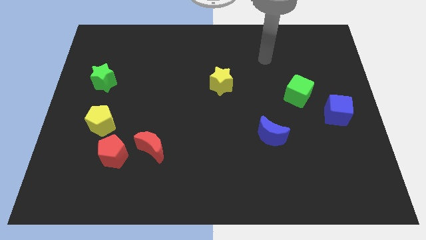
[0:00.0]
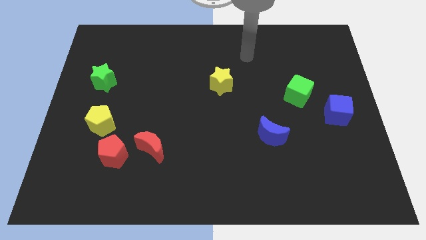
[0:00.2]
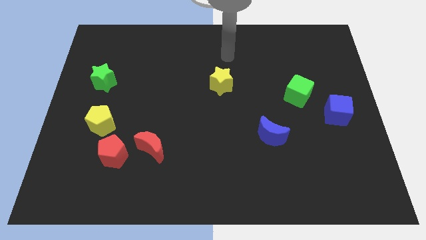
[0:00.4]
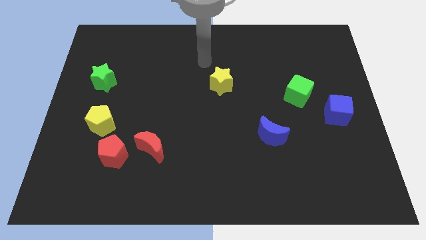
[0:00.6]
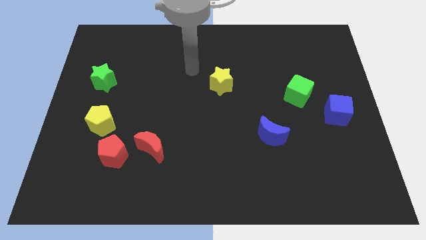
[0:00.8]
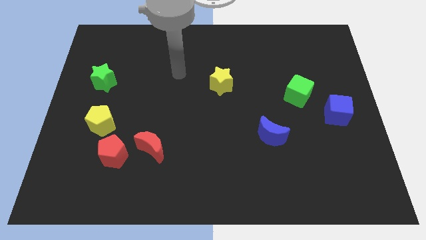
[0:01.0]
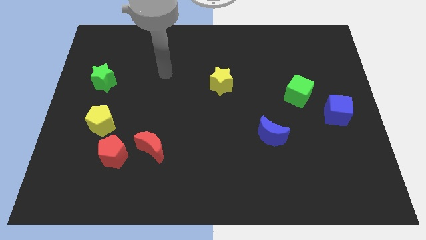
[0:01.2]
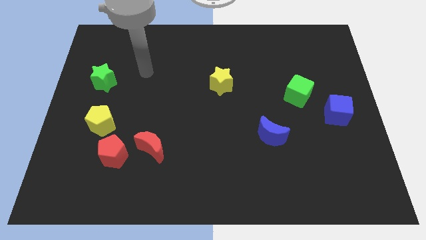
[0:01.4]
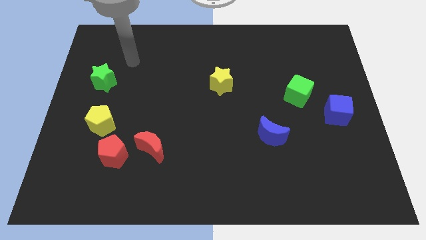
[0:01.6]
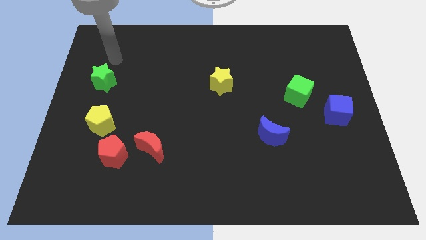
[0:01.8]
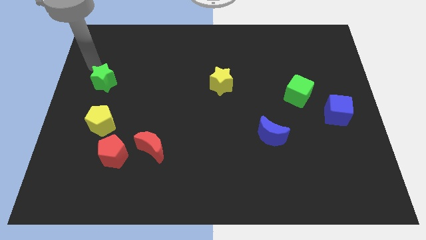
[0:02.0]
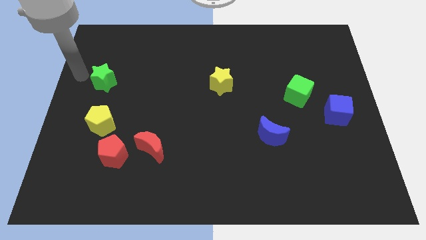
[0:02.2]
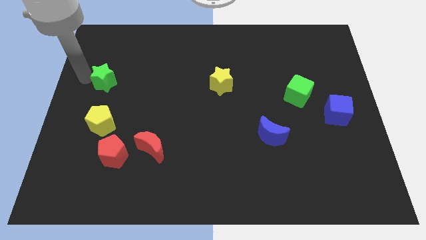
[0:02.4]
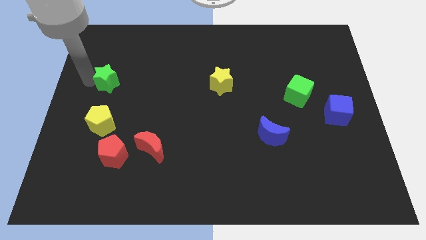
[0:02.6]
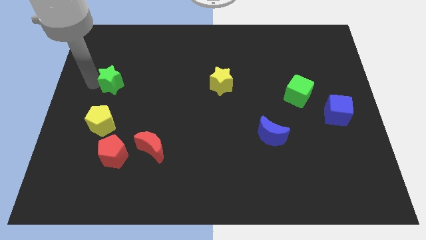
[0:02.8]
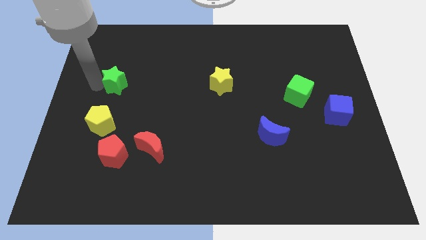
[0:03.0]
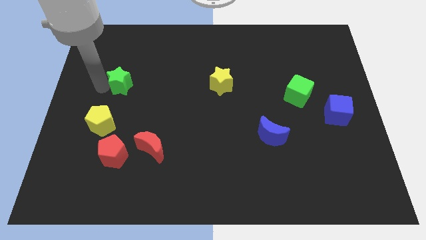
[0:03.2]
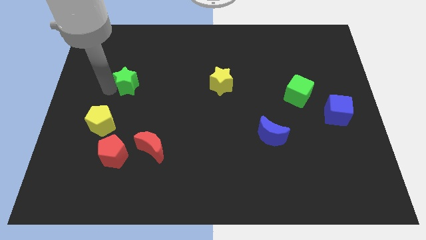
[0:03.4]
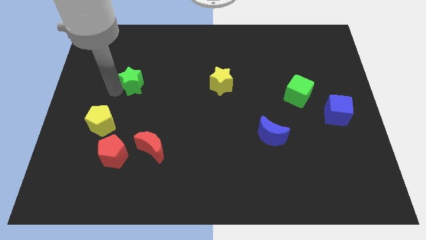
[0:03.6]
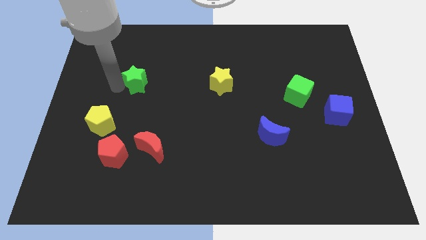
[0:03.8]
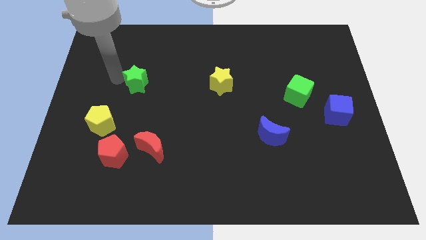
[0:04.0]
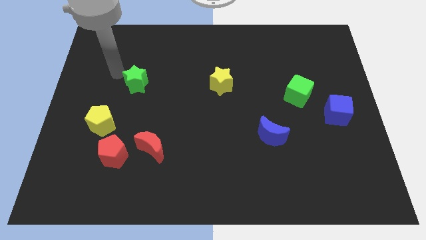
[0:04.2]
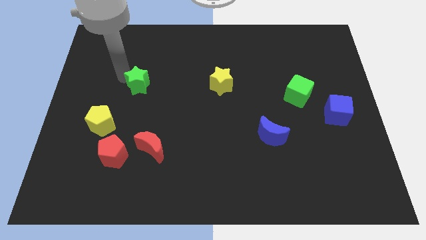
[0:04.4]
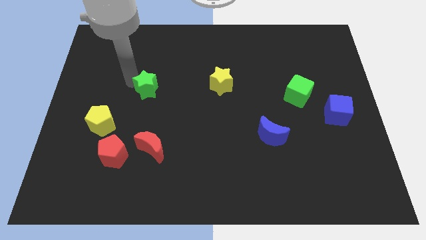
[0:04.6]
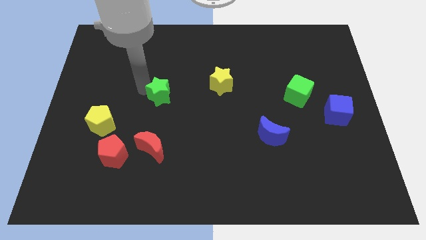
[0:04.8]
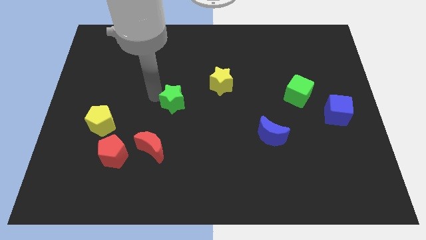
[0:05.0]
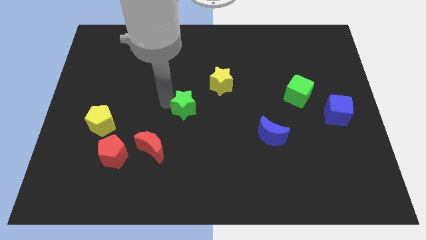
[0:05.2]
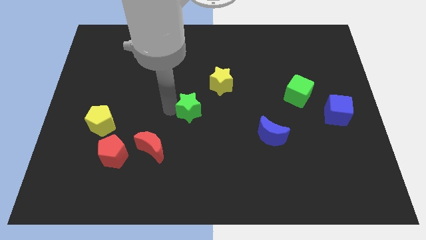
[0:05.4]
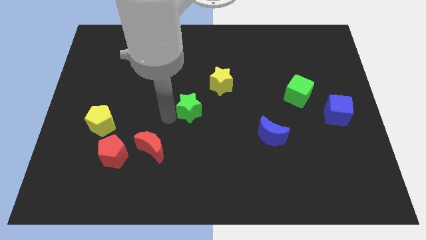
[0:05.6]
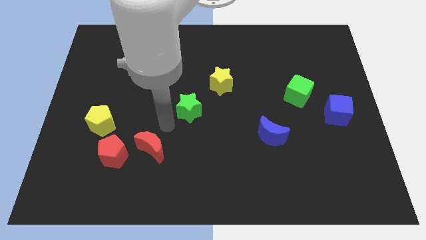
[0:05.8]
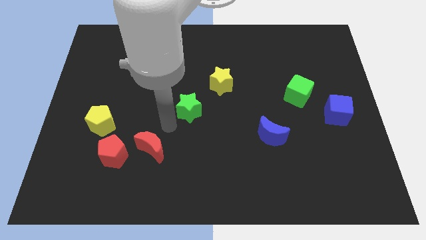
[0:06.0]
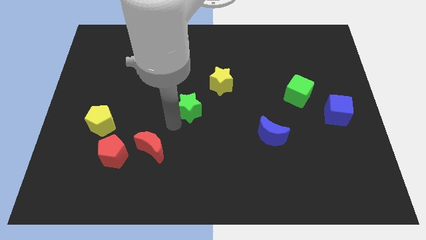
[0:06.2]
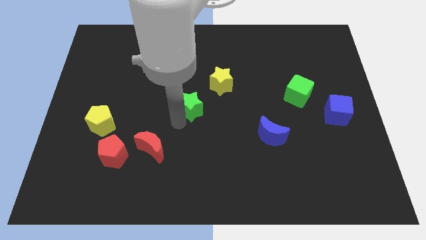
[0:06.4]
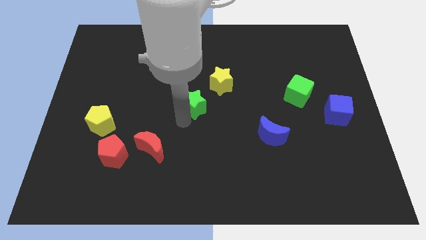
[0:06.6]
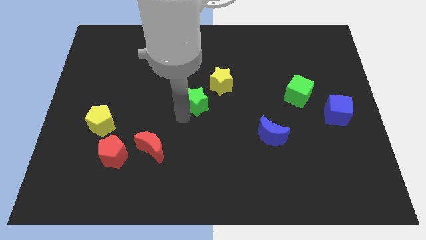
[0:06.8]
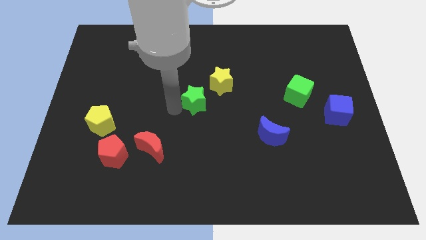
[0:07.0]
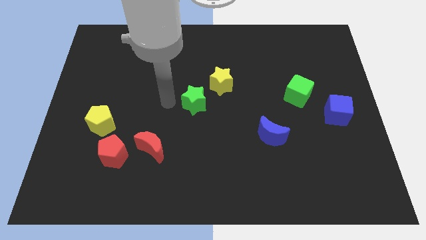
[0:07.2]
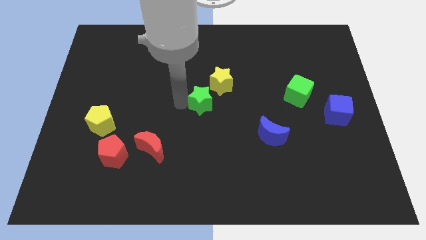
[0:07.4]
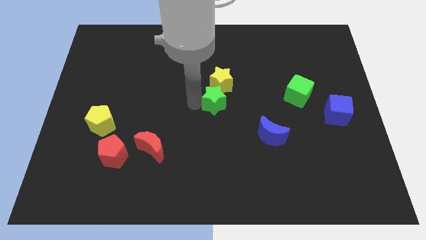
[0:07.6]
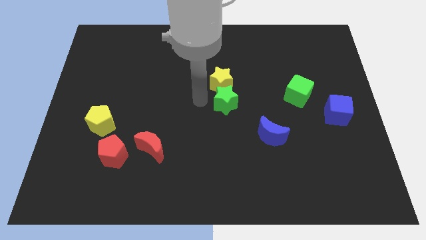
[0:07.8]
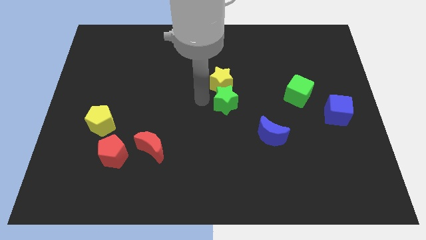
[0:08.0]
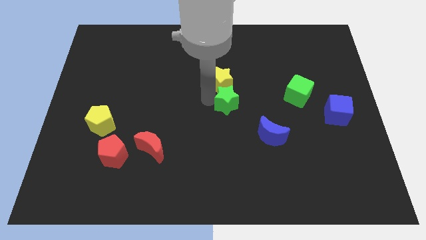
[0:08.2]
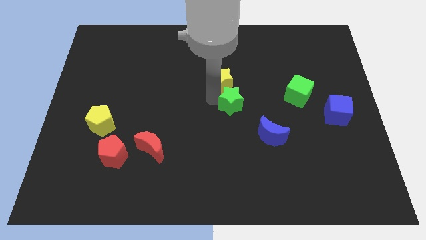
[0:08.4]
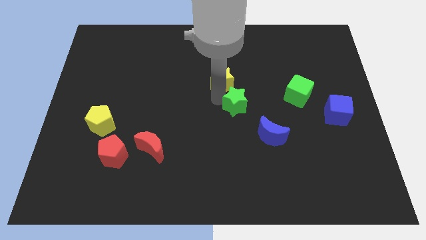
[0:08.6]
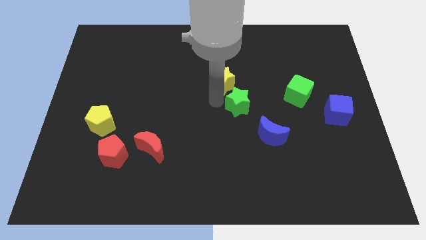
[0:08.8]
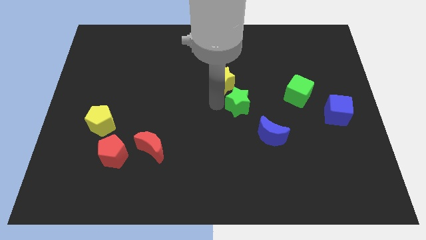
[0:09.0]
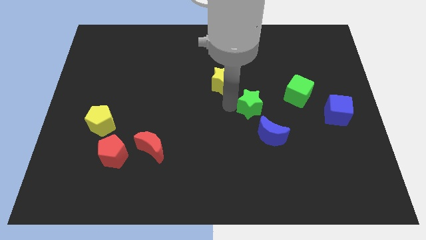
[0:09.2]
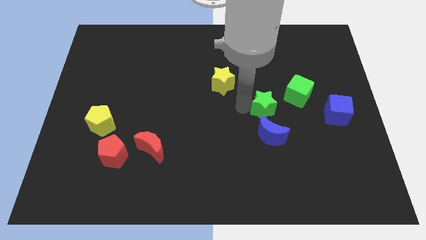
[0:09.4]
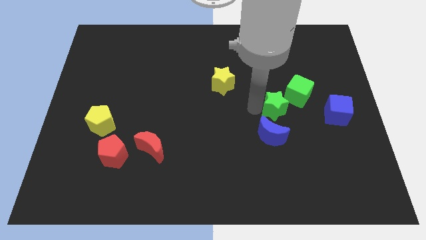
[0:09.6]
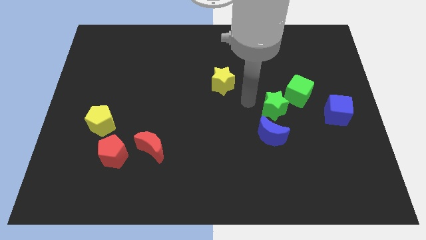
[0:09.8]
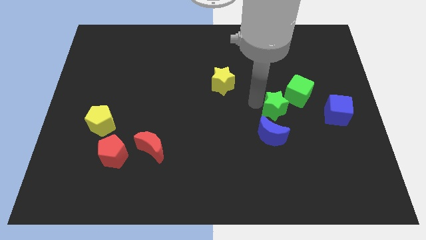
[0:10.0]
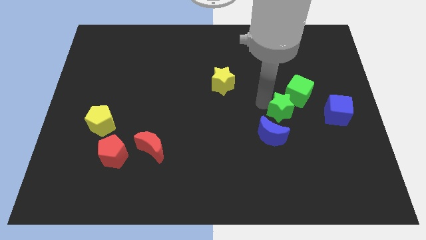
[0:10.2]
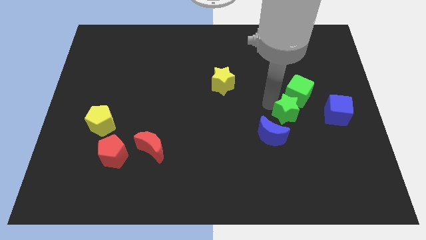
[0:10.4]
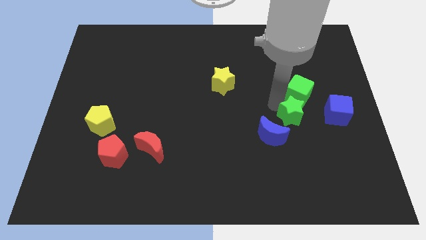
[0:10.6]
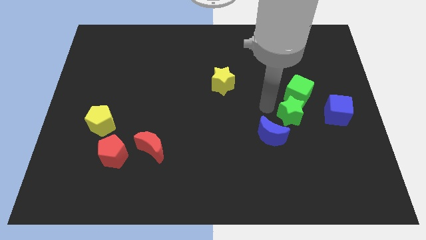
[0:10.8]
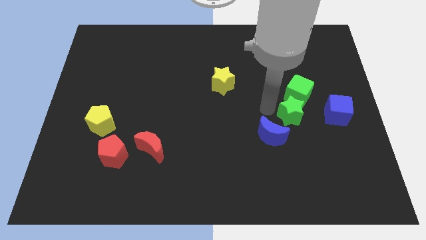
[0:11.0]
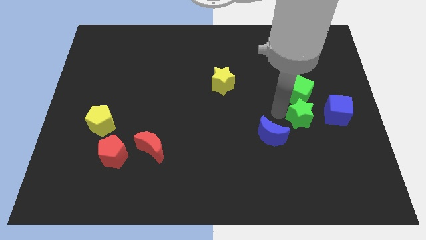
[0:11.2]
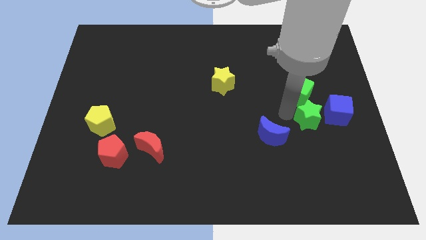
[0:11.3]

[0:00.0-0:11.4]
slide the green star diagonally down and to the left of the blue cube

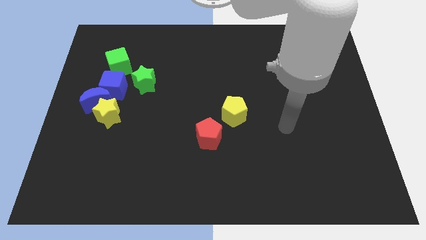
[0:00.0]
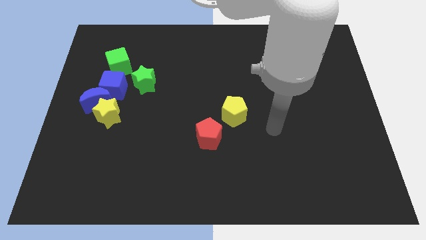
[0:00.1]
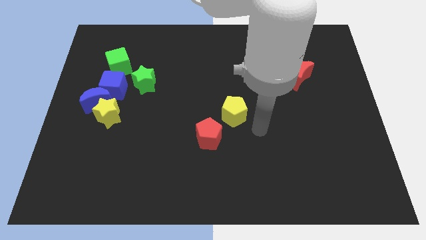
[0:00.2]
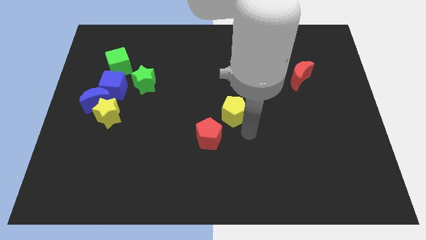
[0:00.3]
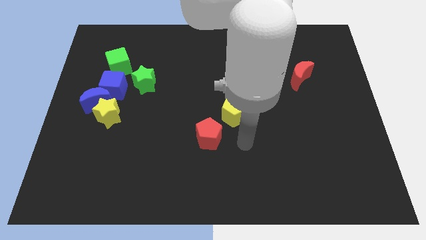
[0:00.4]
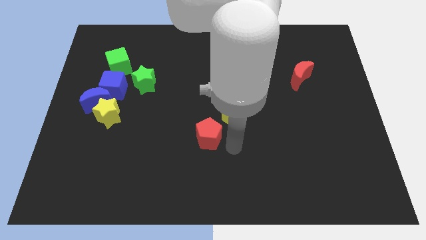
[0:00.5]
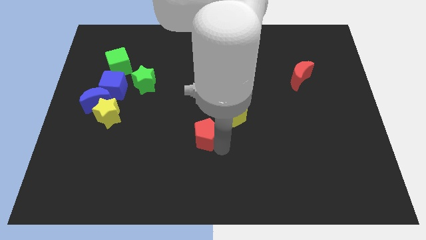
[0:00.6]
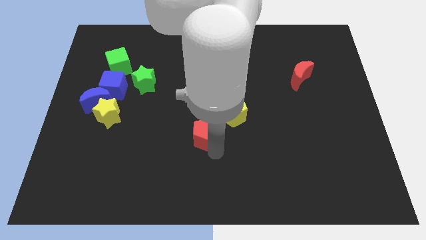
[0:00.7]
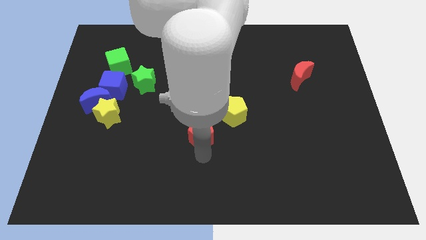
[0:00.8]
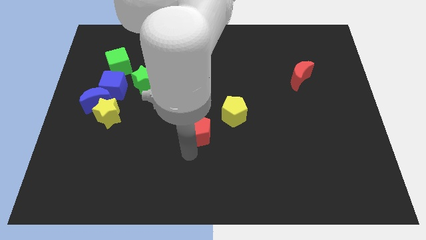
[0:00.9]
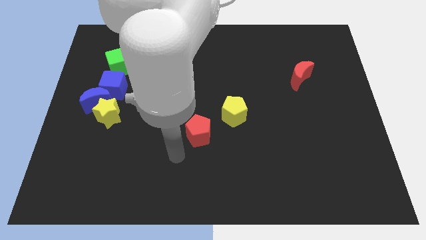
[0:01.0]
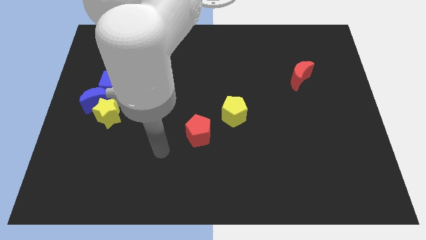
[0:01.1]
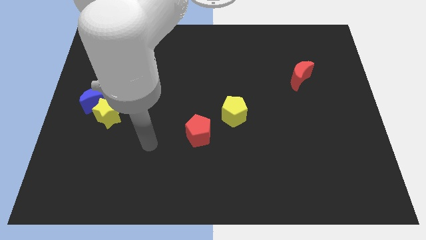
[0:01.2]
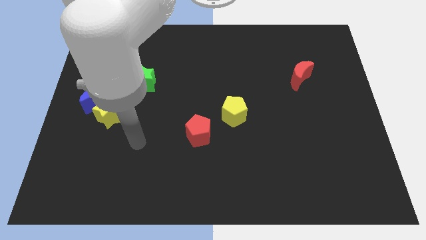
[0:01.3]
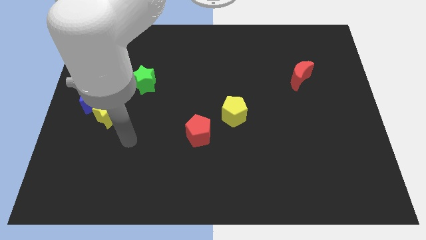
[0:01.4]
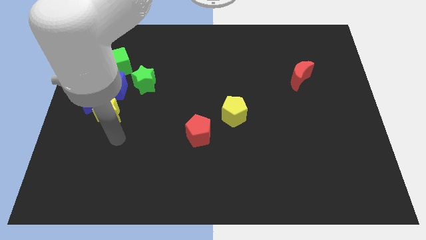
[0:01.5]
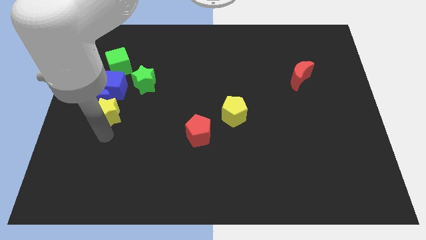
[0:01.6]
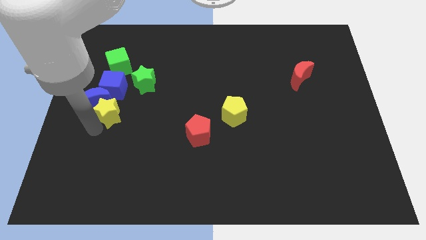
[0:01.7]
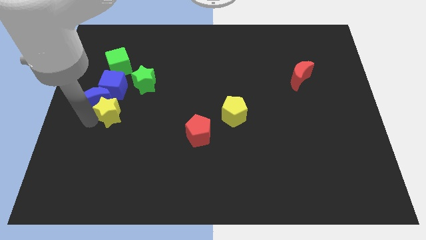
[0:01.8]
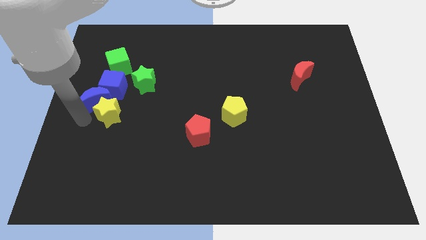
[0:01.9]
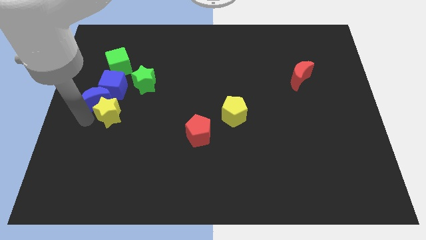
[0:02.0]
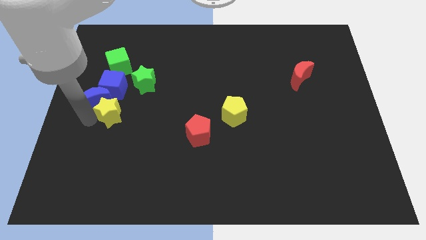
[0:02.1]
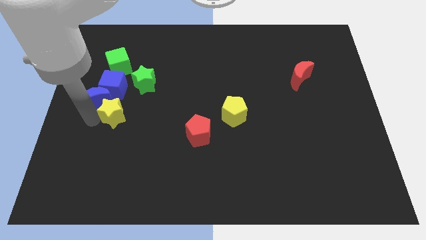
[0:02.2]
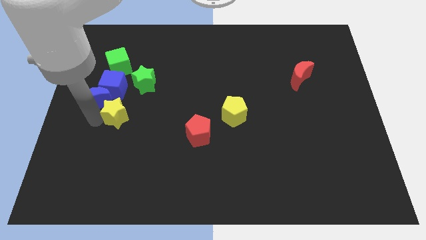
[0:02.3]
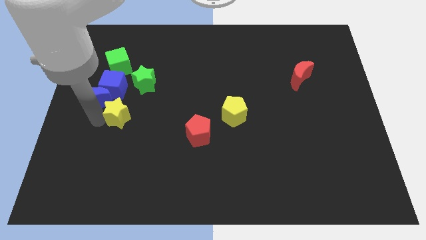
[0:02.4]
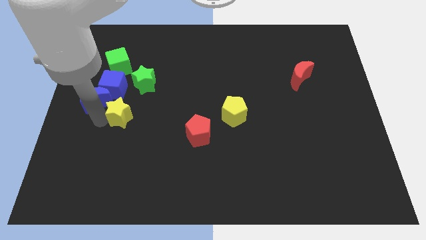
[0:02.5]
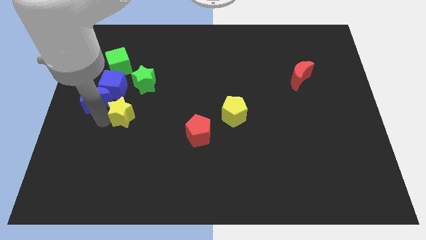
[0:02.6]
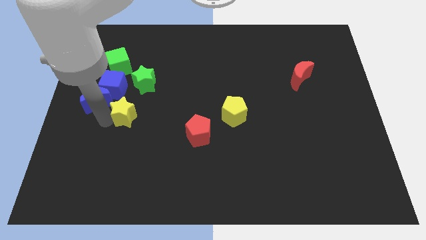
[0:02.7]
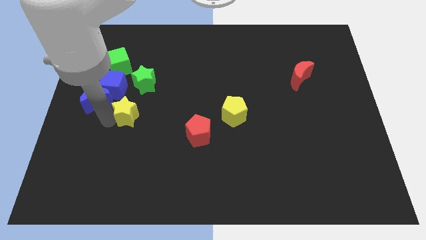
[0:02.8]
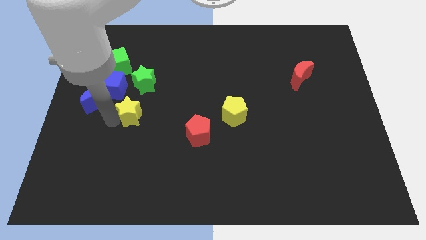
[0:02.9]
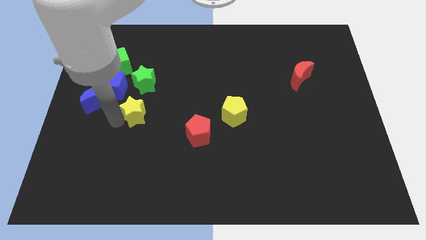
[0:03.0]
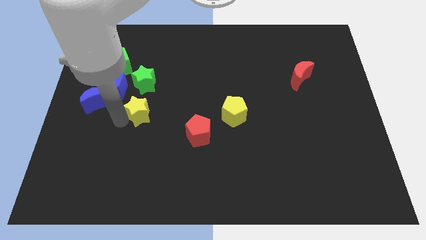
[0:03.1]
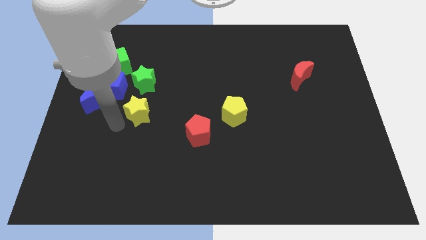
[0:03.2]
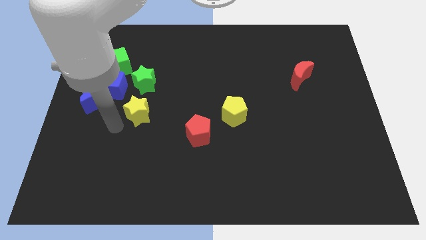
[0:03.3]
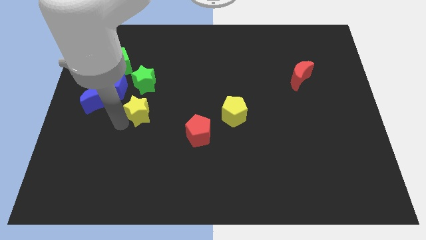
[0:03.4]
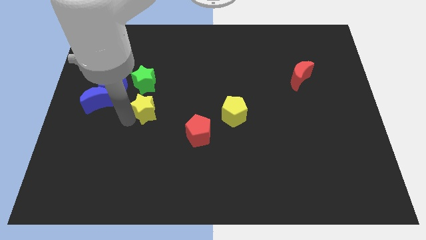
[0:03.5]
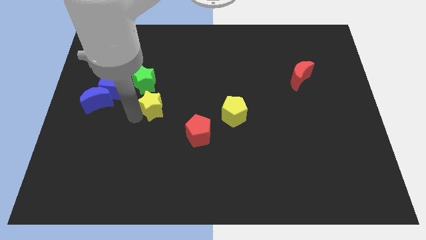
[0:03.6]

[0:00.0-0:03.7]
slide the yellow star to the bottom right of the green star
